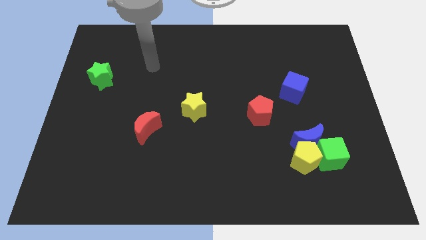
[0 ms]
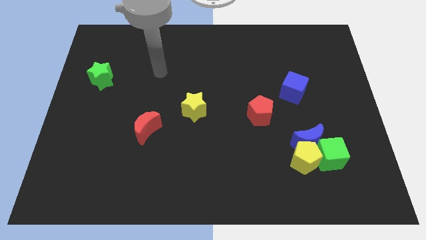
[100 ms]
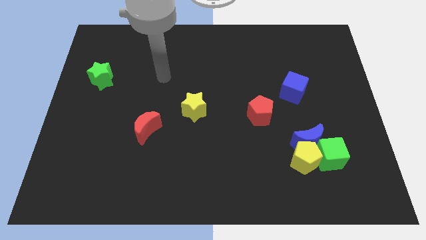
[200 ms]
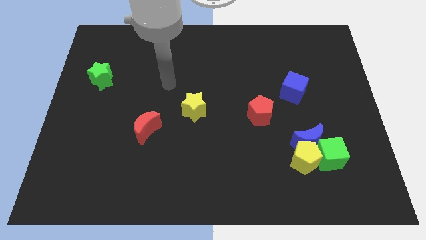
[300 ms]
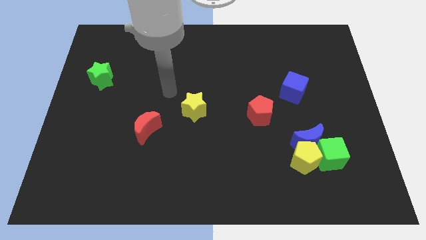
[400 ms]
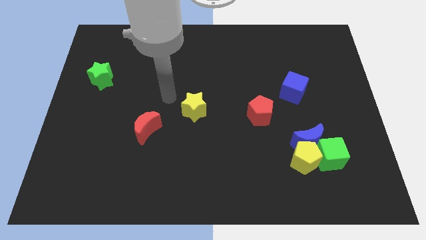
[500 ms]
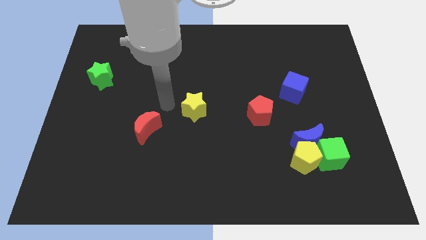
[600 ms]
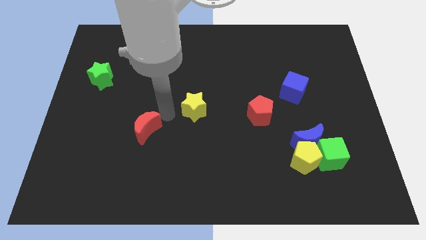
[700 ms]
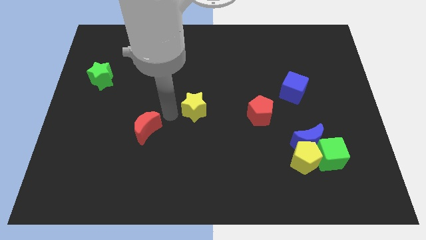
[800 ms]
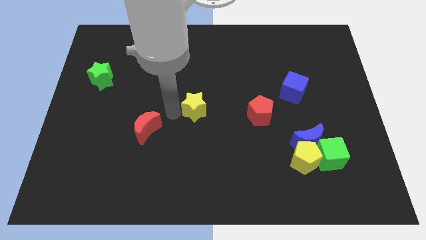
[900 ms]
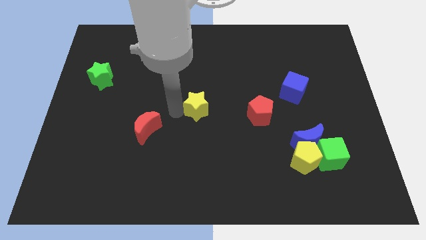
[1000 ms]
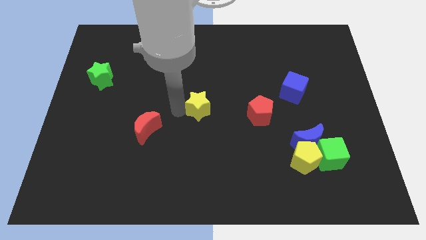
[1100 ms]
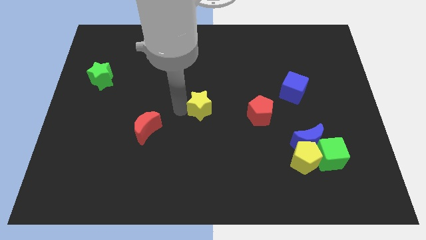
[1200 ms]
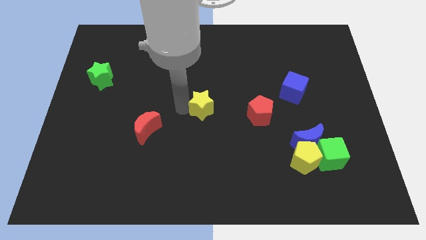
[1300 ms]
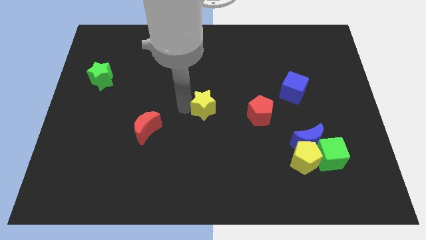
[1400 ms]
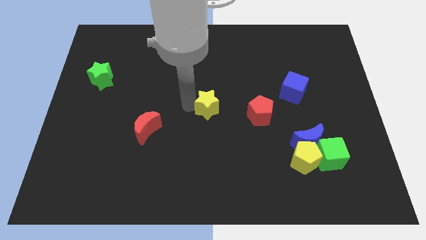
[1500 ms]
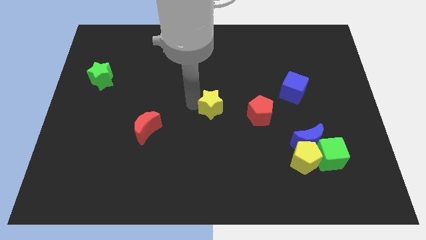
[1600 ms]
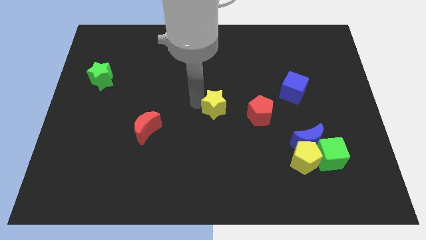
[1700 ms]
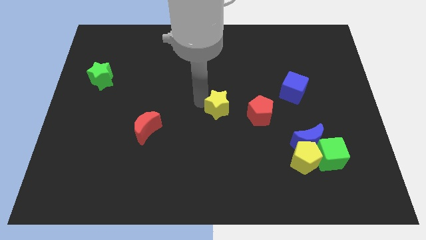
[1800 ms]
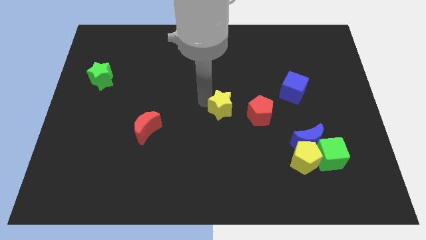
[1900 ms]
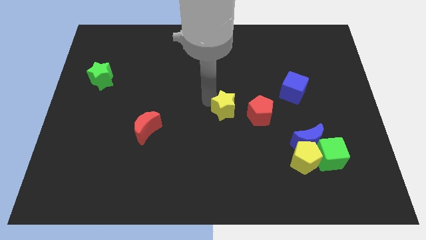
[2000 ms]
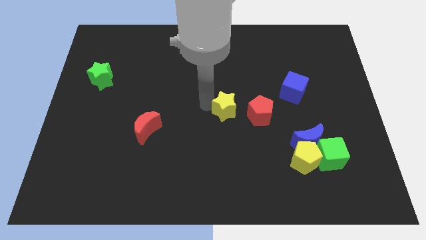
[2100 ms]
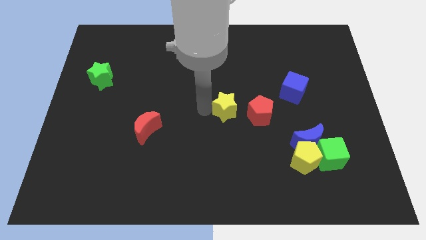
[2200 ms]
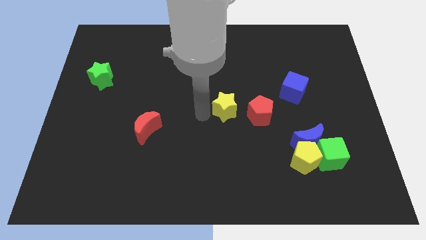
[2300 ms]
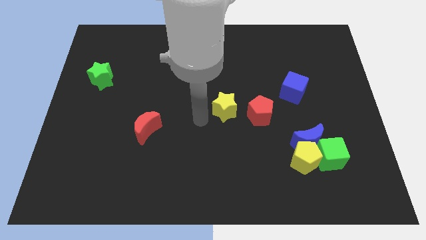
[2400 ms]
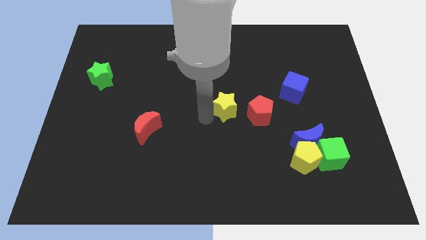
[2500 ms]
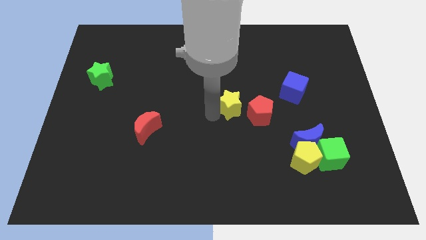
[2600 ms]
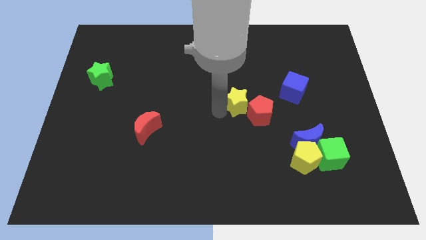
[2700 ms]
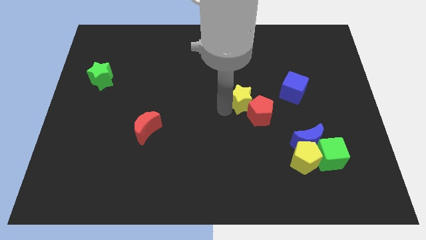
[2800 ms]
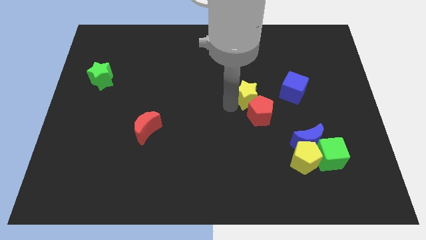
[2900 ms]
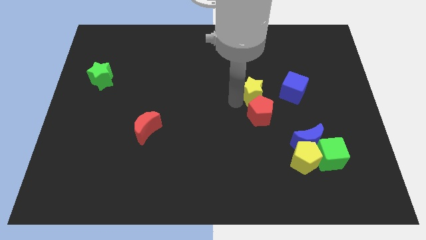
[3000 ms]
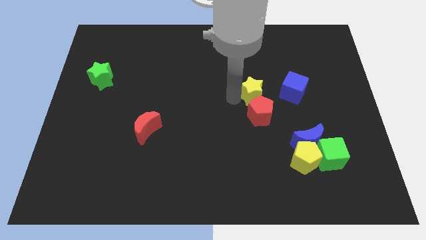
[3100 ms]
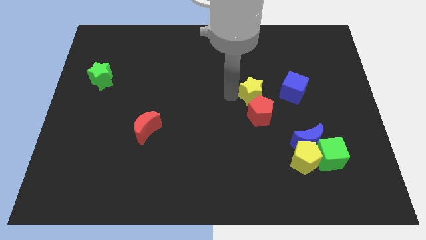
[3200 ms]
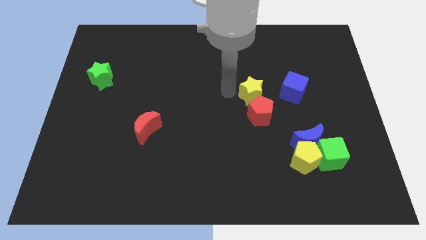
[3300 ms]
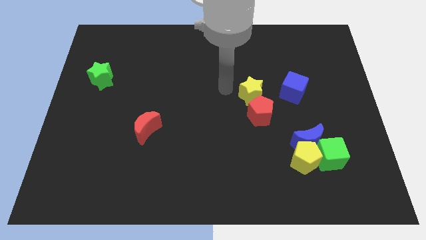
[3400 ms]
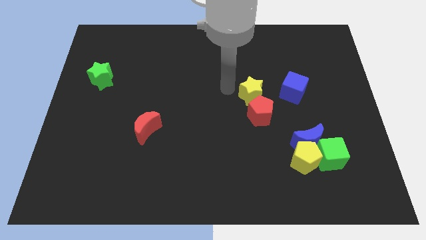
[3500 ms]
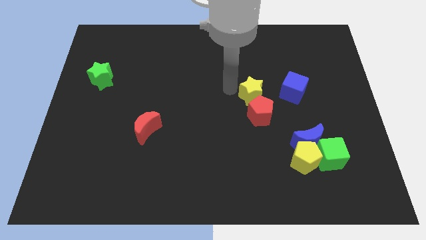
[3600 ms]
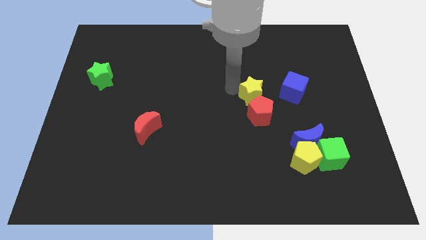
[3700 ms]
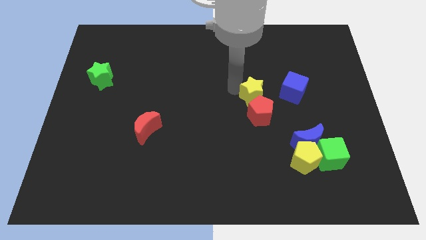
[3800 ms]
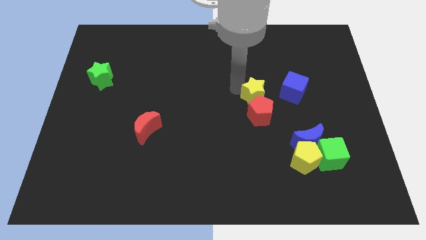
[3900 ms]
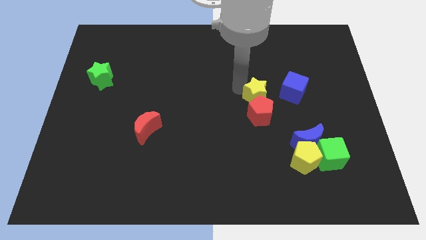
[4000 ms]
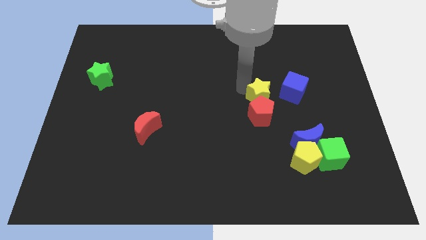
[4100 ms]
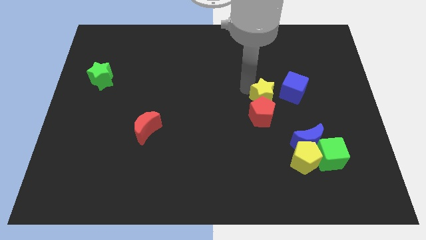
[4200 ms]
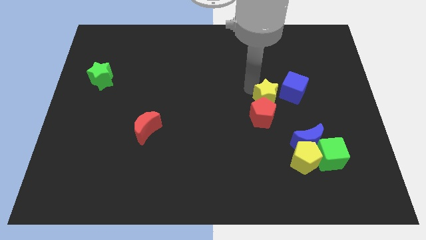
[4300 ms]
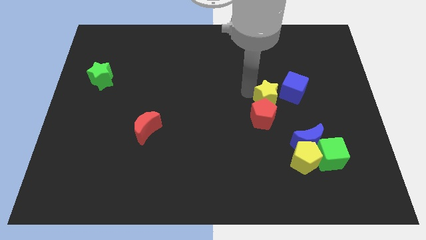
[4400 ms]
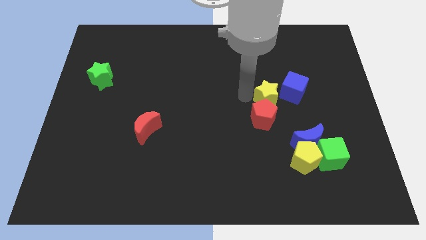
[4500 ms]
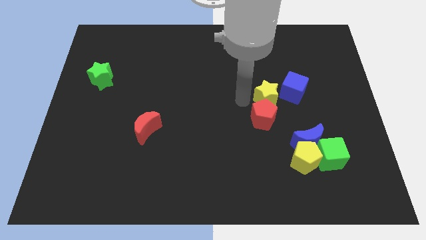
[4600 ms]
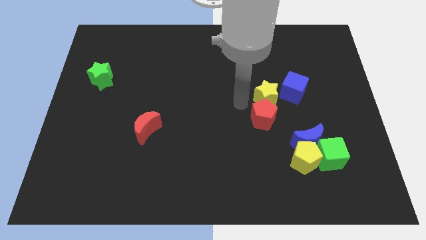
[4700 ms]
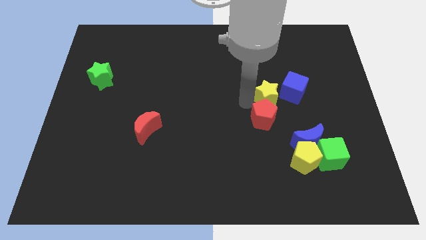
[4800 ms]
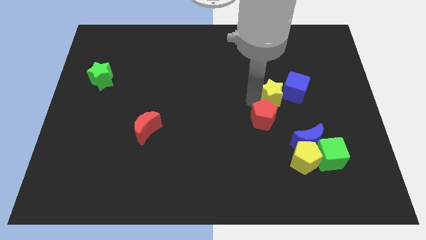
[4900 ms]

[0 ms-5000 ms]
put the yellow star next to the blue cube

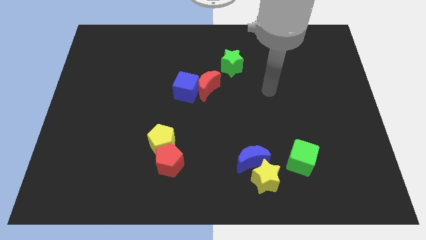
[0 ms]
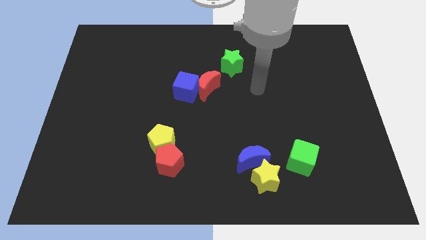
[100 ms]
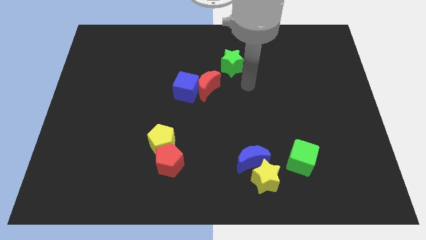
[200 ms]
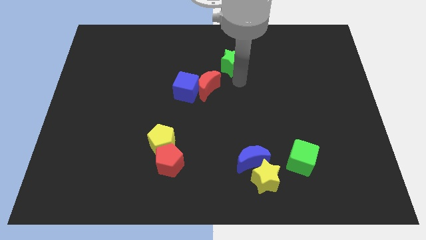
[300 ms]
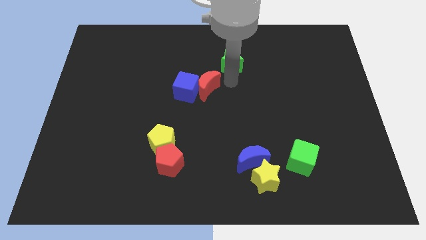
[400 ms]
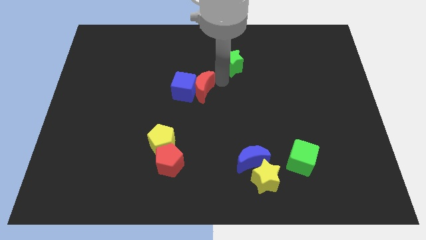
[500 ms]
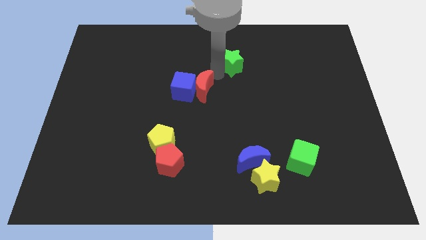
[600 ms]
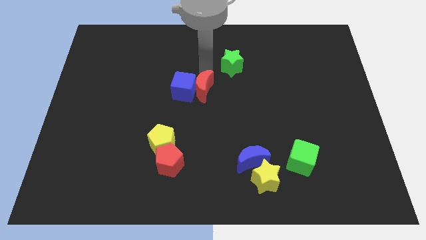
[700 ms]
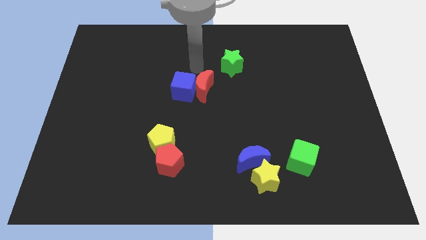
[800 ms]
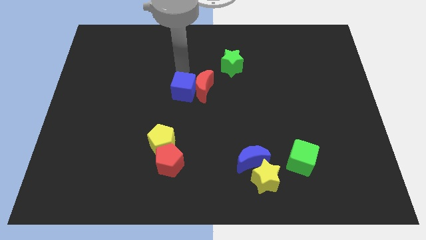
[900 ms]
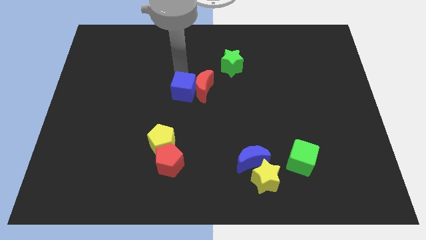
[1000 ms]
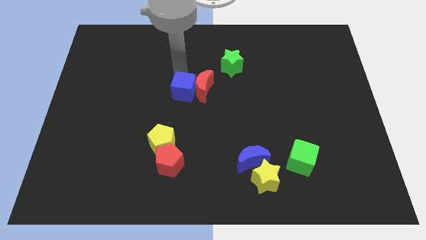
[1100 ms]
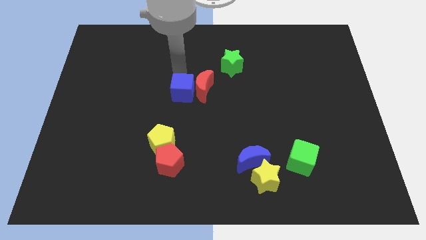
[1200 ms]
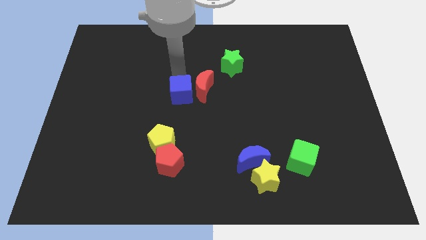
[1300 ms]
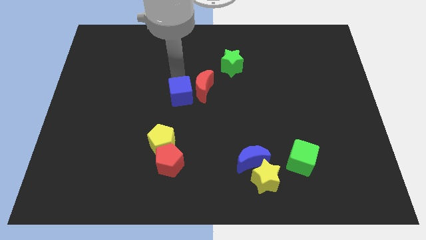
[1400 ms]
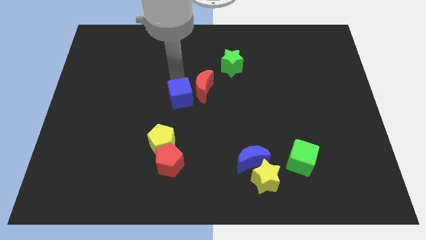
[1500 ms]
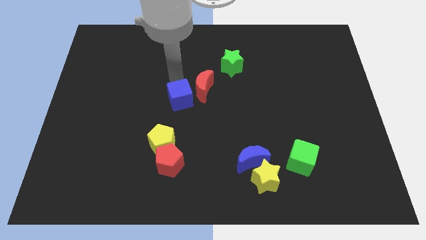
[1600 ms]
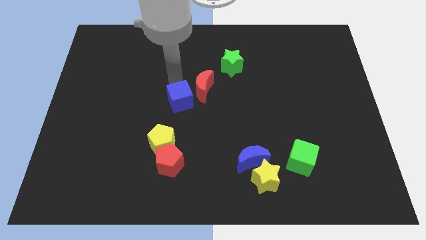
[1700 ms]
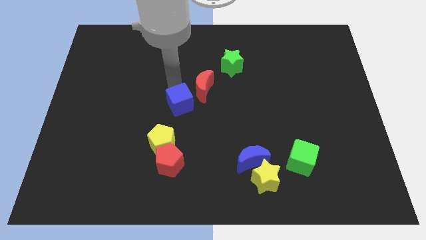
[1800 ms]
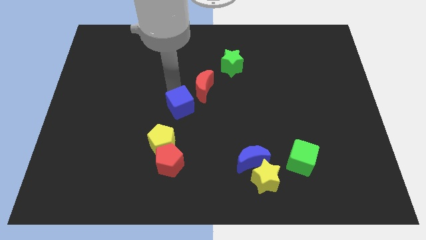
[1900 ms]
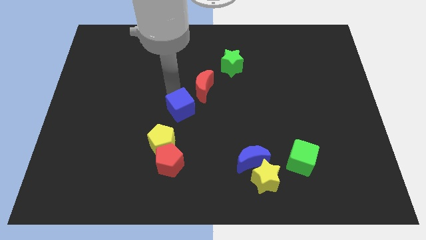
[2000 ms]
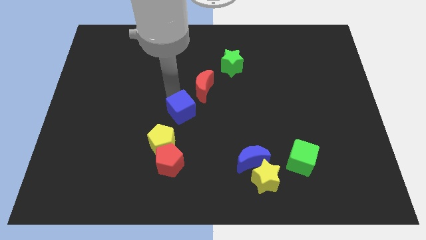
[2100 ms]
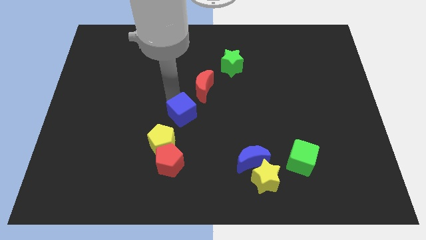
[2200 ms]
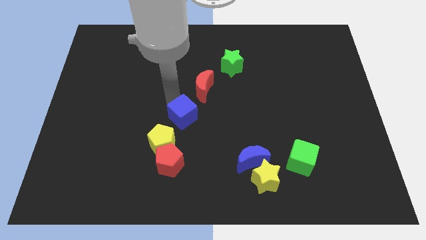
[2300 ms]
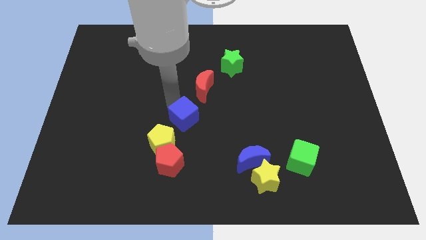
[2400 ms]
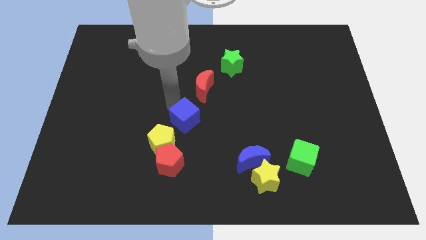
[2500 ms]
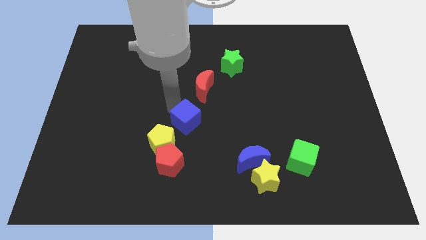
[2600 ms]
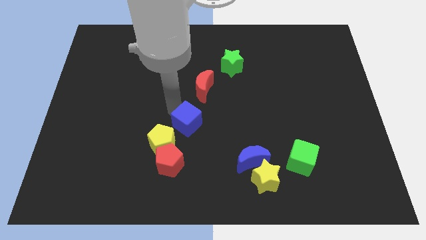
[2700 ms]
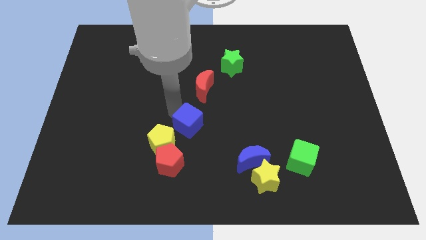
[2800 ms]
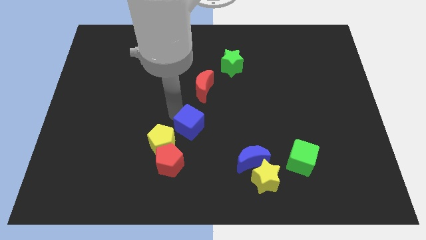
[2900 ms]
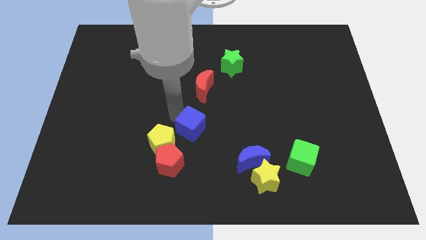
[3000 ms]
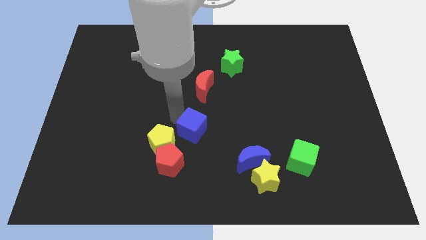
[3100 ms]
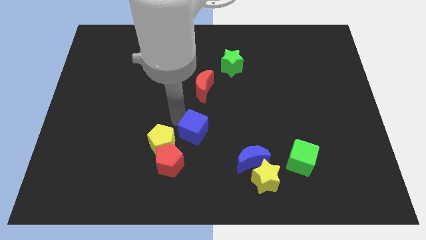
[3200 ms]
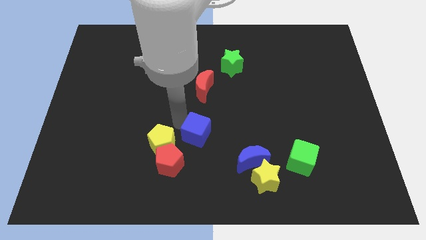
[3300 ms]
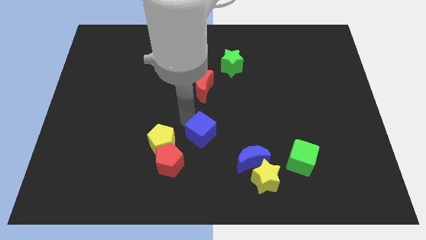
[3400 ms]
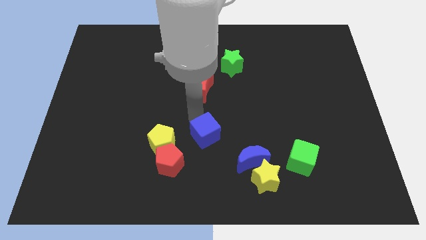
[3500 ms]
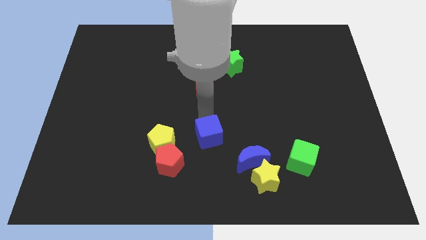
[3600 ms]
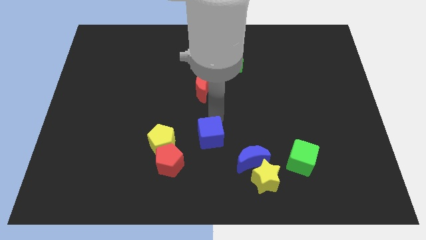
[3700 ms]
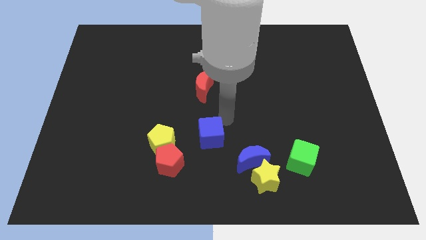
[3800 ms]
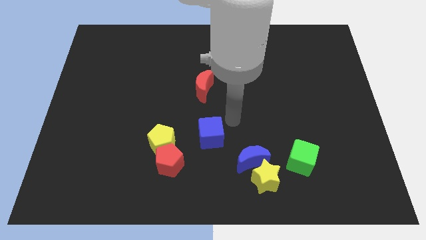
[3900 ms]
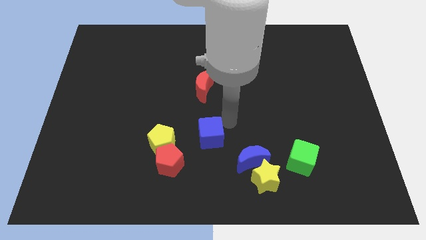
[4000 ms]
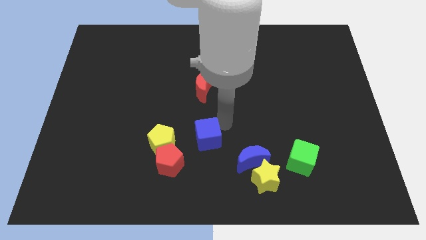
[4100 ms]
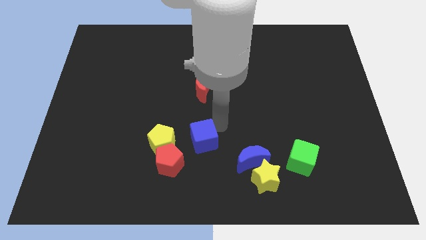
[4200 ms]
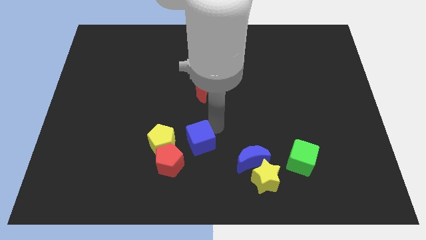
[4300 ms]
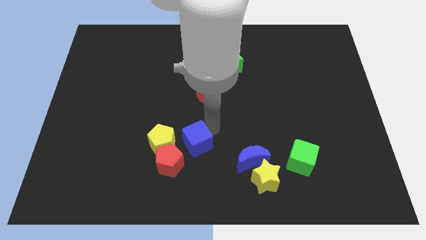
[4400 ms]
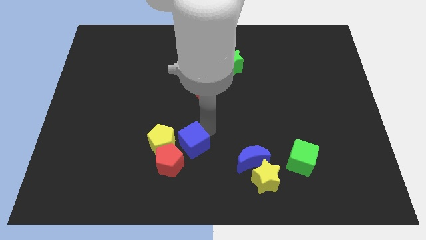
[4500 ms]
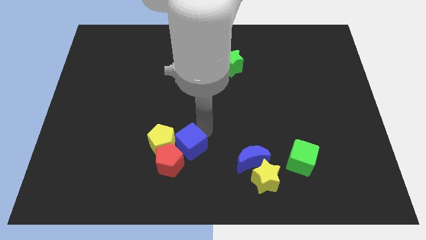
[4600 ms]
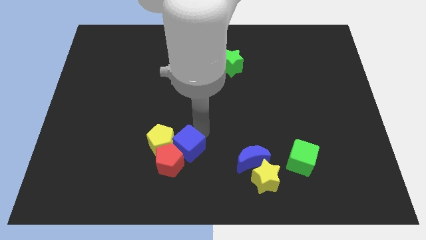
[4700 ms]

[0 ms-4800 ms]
move the blue cube to the red pentagon
